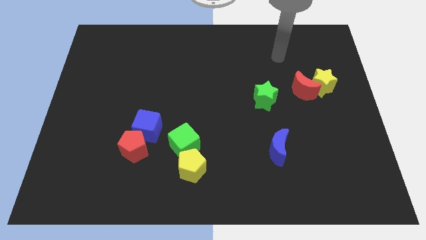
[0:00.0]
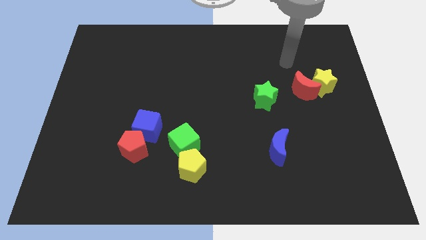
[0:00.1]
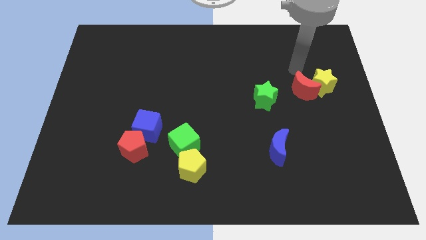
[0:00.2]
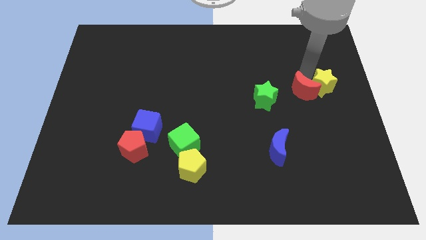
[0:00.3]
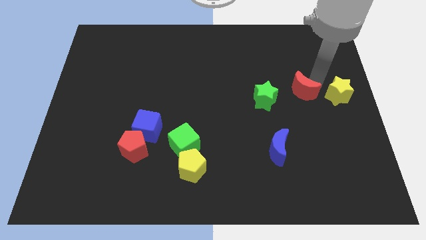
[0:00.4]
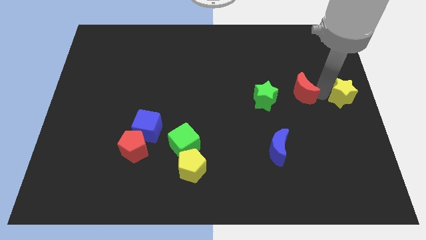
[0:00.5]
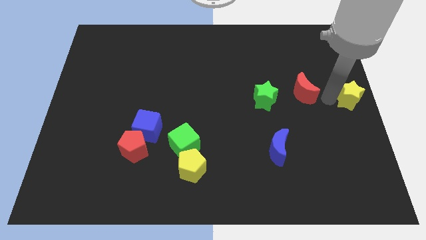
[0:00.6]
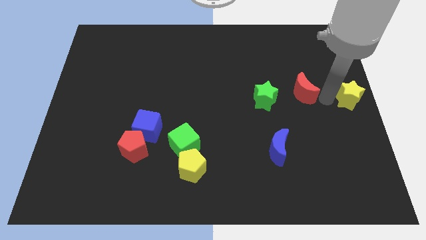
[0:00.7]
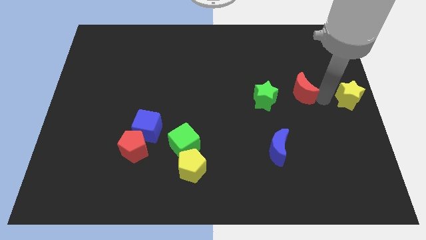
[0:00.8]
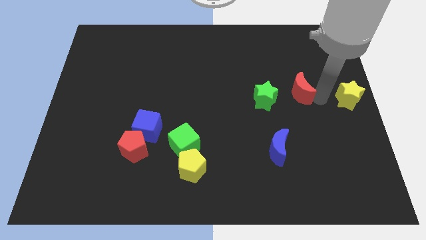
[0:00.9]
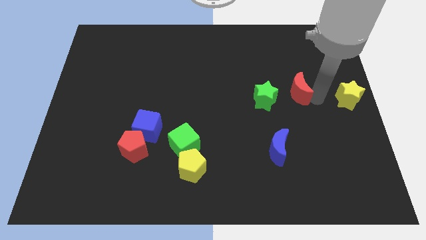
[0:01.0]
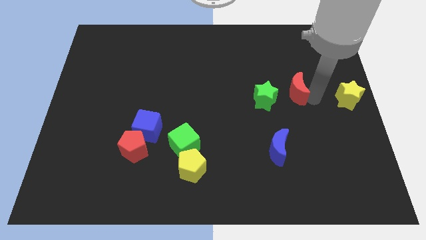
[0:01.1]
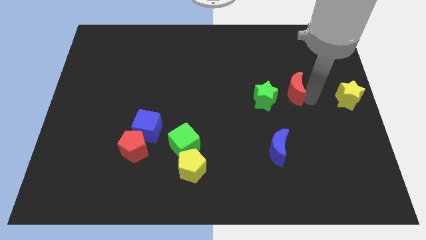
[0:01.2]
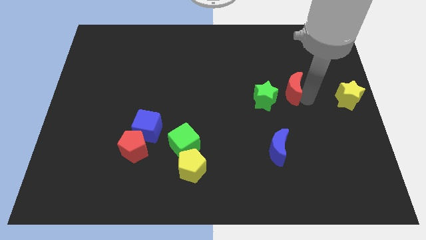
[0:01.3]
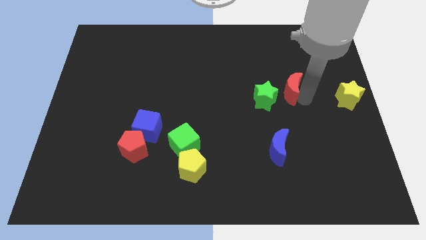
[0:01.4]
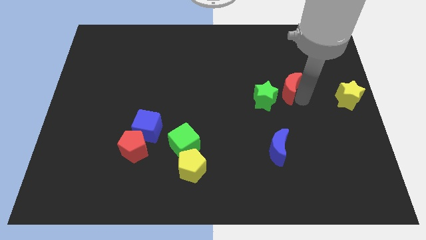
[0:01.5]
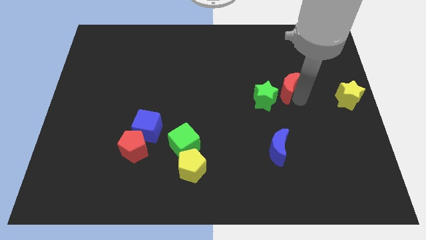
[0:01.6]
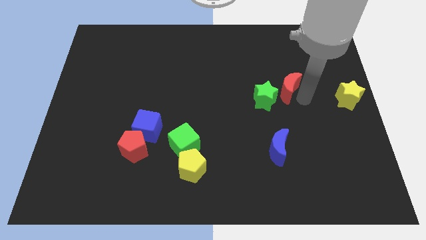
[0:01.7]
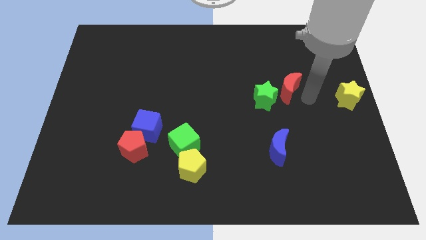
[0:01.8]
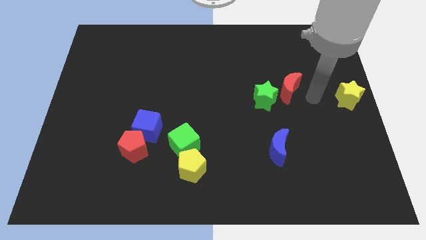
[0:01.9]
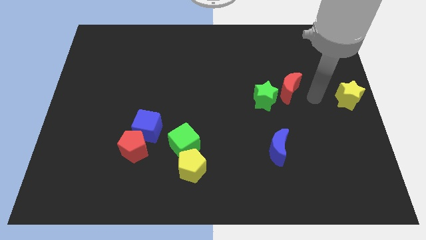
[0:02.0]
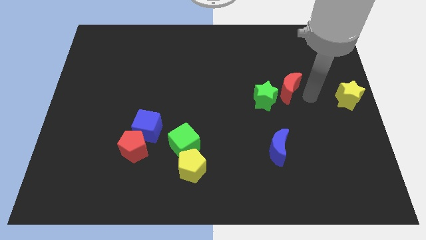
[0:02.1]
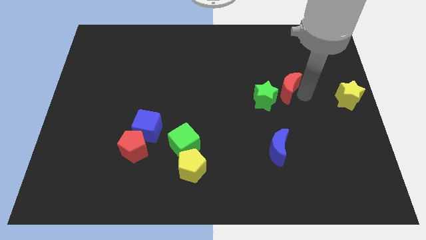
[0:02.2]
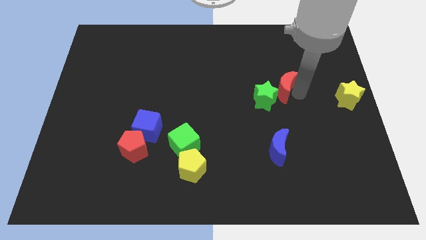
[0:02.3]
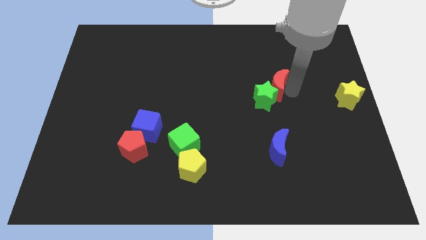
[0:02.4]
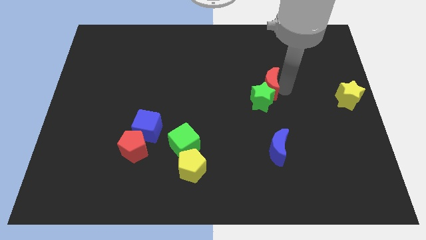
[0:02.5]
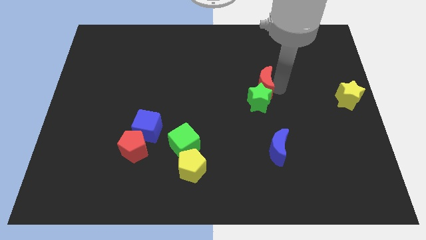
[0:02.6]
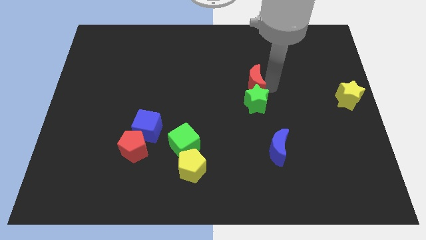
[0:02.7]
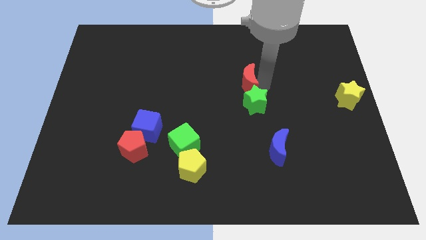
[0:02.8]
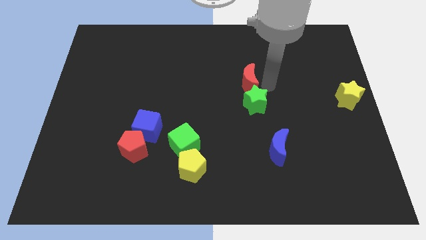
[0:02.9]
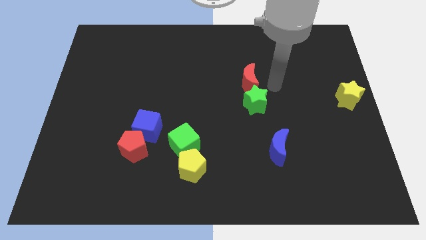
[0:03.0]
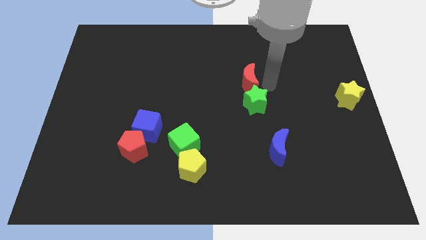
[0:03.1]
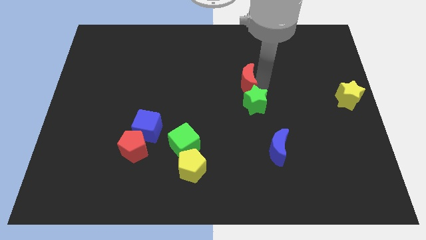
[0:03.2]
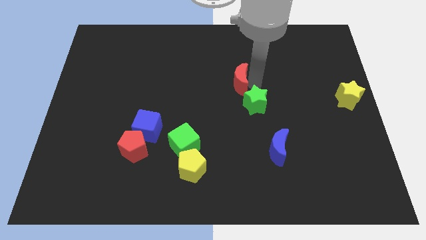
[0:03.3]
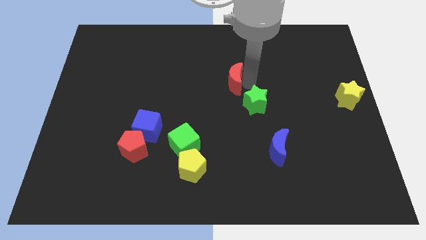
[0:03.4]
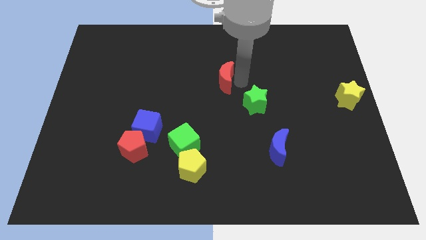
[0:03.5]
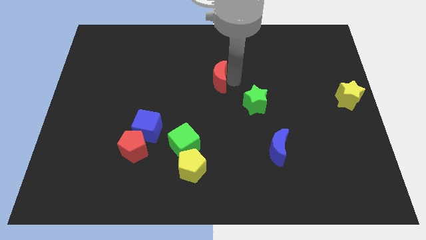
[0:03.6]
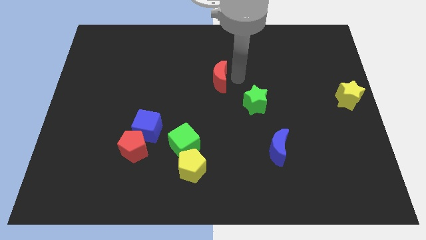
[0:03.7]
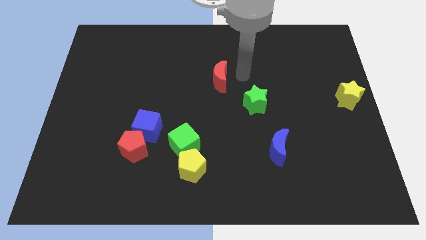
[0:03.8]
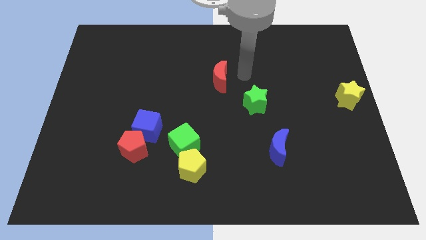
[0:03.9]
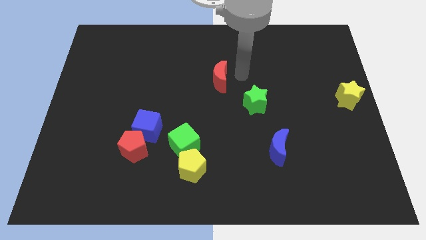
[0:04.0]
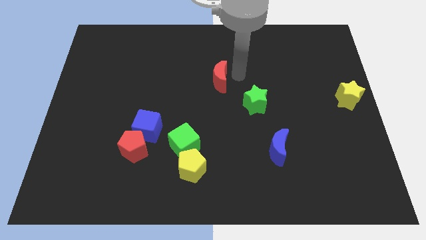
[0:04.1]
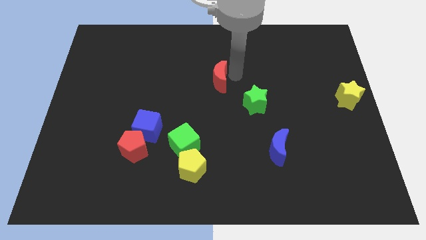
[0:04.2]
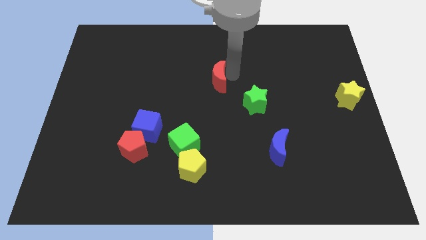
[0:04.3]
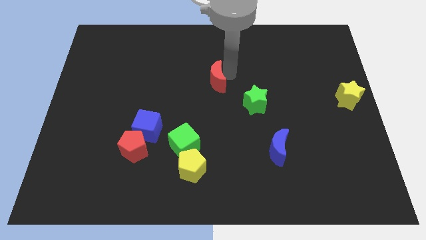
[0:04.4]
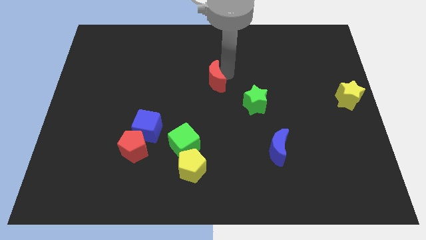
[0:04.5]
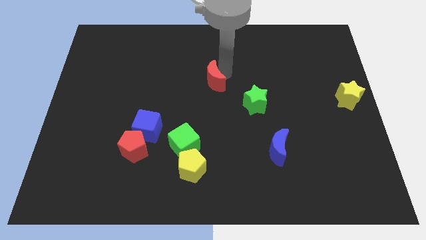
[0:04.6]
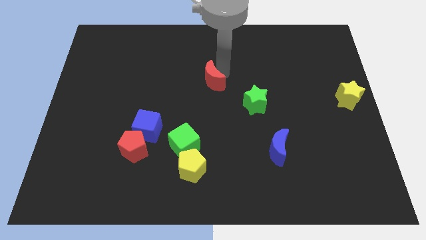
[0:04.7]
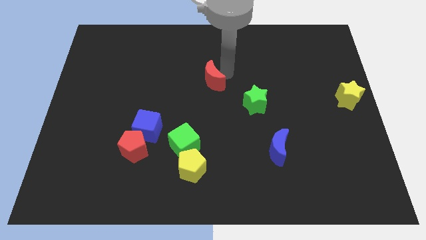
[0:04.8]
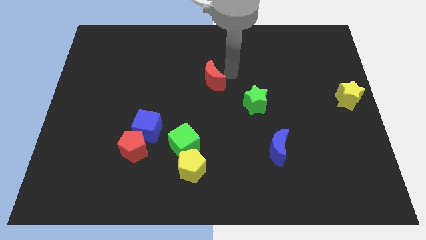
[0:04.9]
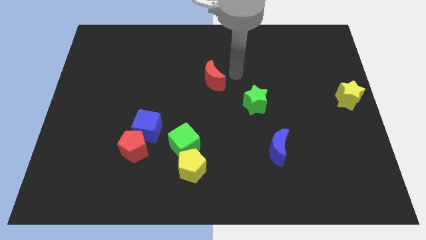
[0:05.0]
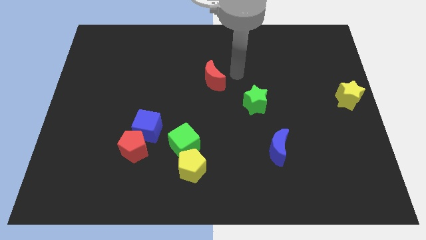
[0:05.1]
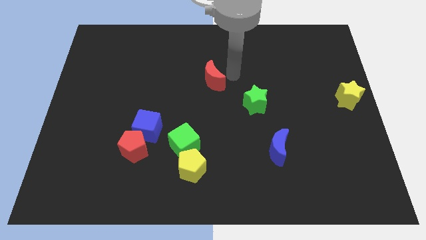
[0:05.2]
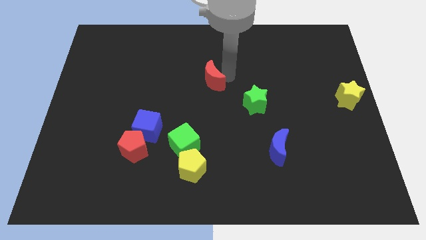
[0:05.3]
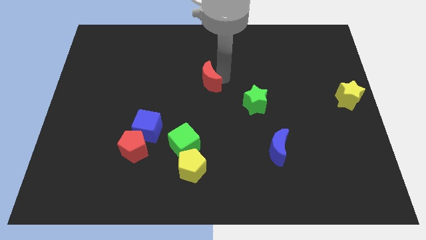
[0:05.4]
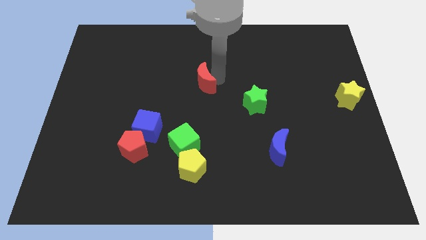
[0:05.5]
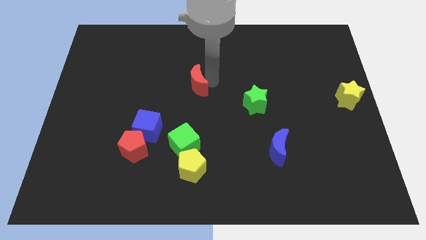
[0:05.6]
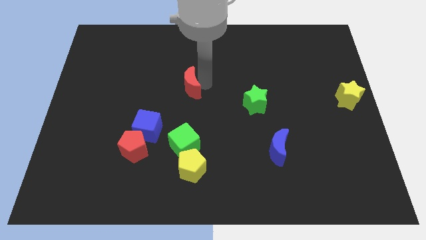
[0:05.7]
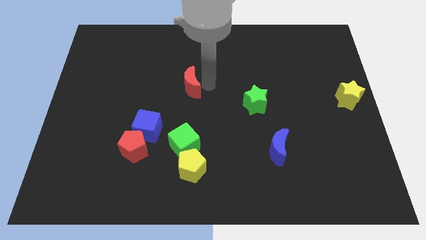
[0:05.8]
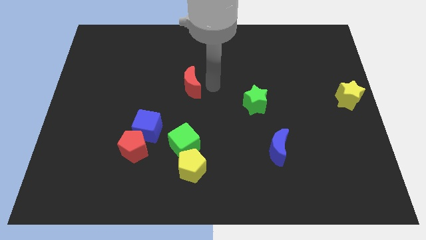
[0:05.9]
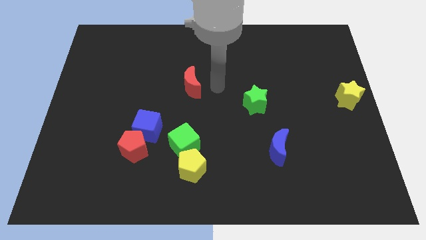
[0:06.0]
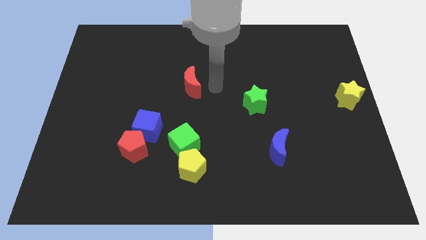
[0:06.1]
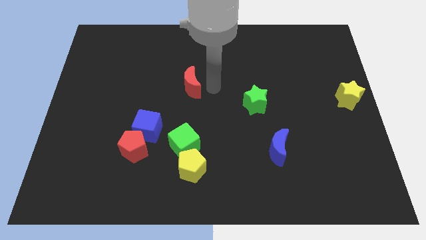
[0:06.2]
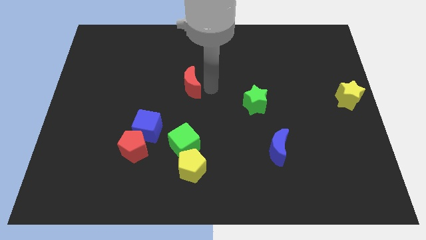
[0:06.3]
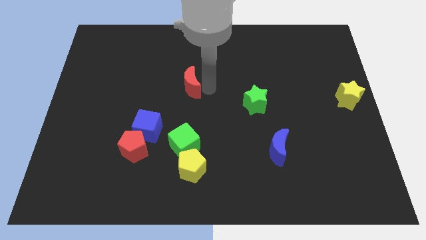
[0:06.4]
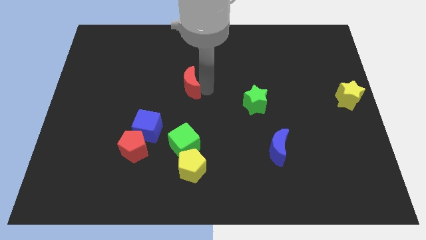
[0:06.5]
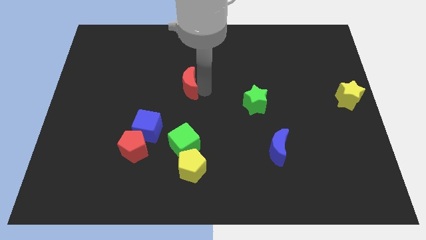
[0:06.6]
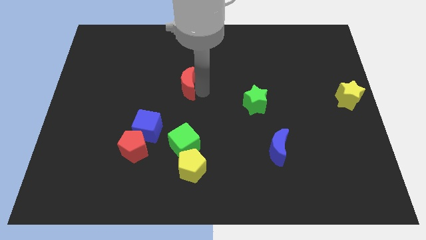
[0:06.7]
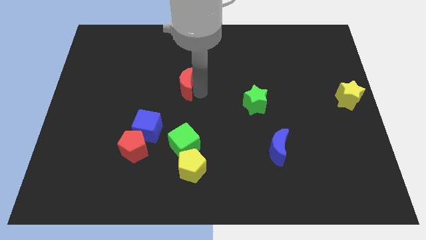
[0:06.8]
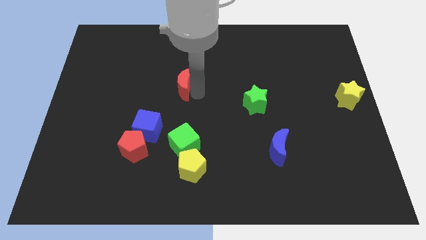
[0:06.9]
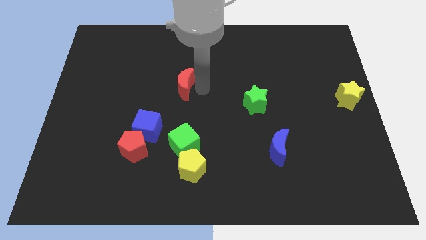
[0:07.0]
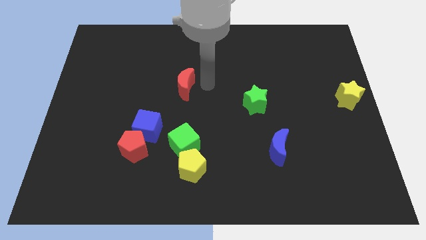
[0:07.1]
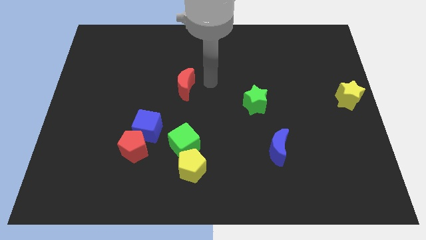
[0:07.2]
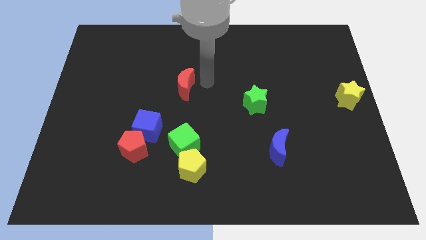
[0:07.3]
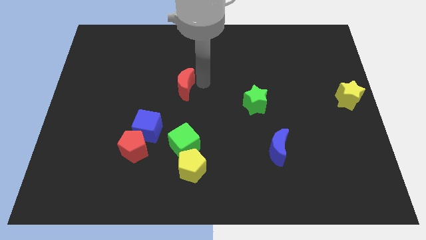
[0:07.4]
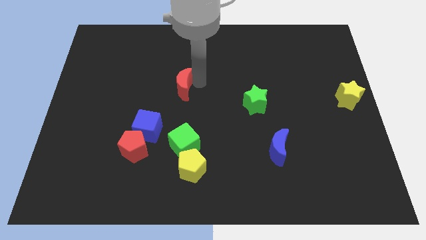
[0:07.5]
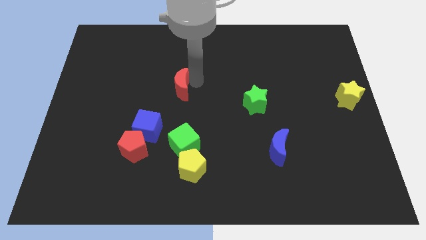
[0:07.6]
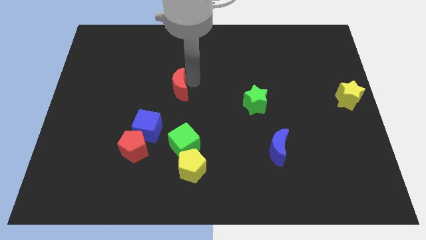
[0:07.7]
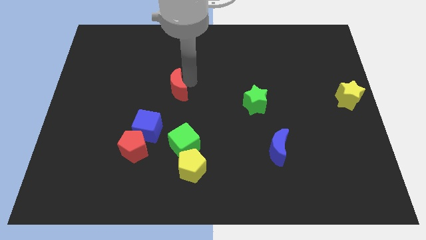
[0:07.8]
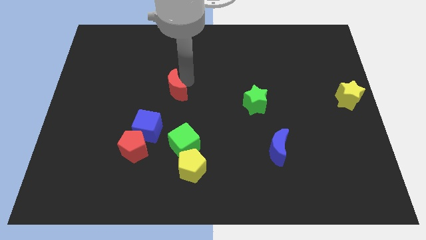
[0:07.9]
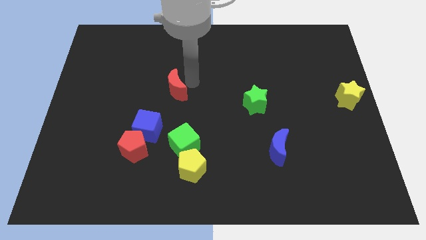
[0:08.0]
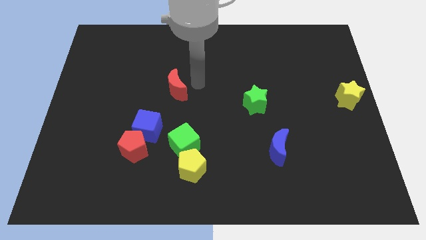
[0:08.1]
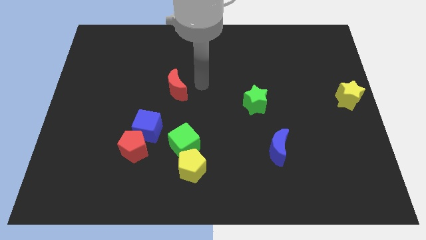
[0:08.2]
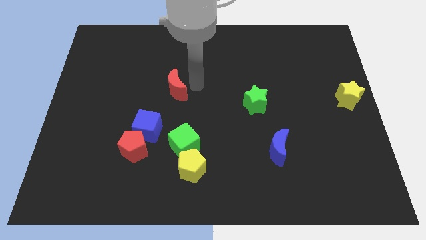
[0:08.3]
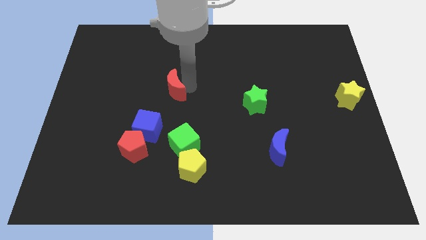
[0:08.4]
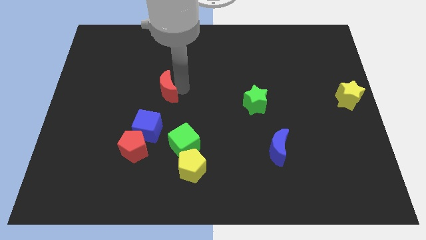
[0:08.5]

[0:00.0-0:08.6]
move the red moon to the top of the blue cube
